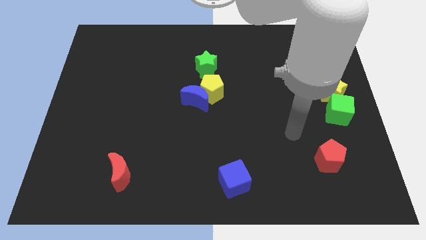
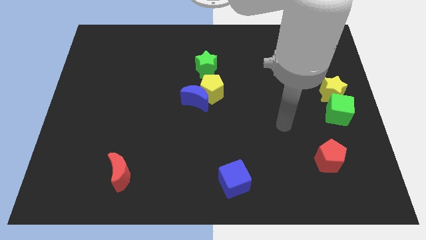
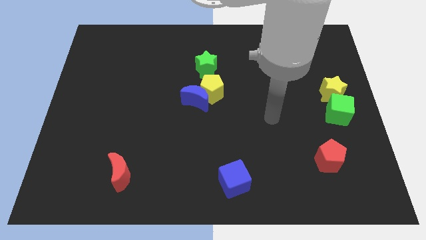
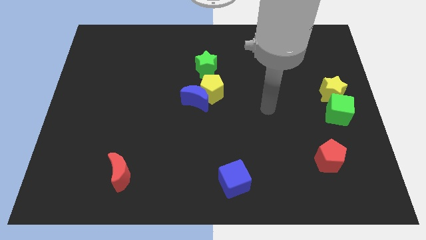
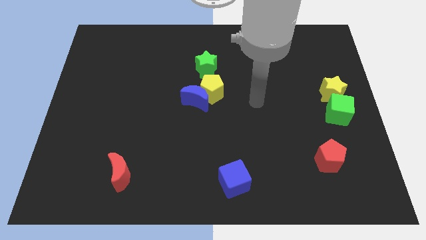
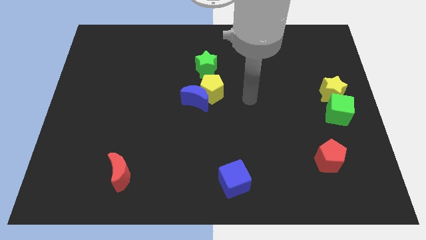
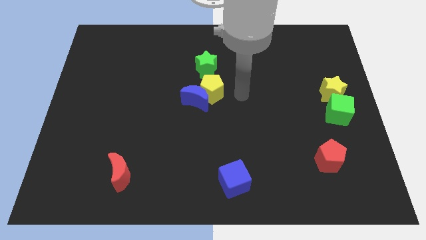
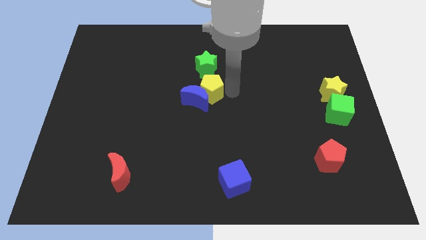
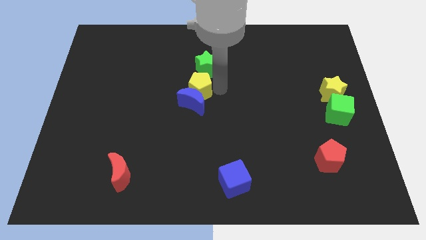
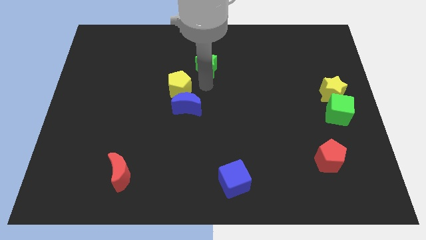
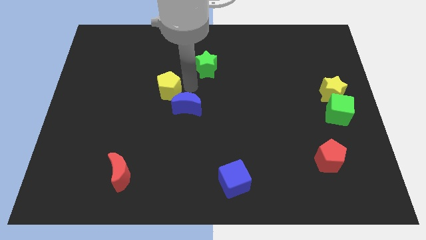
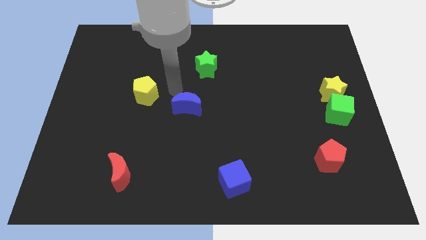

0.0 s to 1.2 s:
pull the blue moon apart from the yellow pentagon

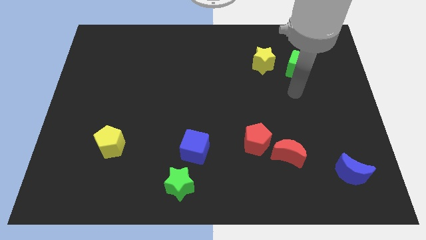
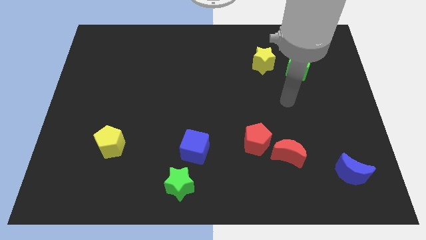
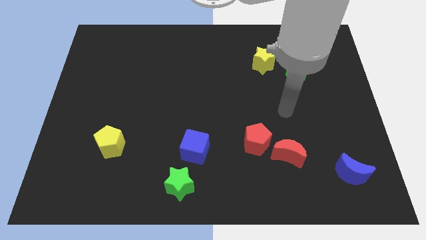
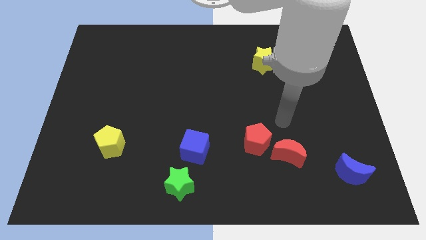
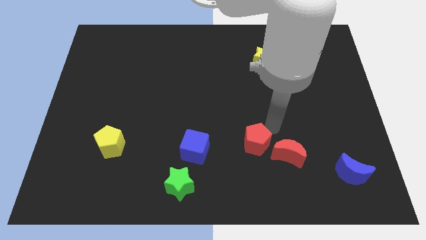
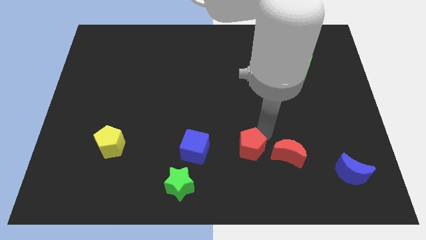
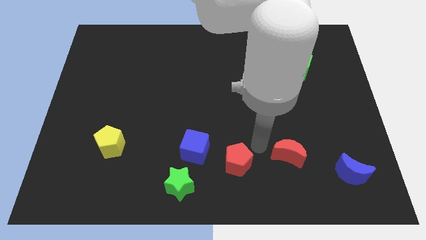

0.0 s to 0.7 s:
pull the red moon apart from the red pentagon

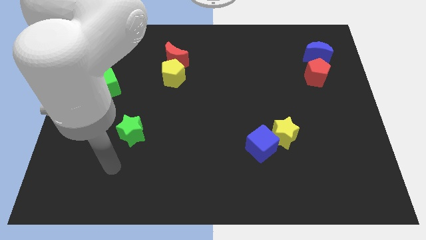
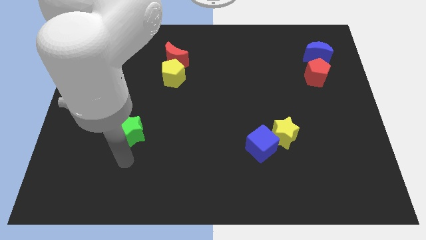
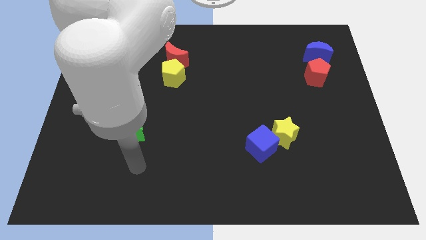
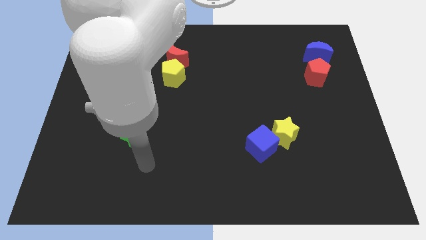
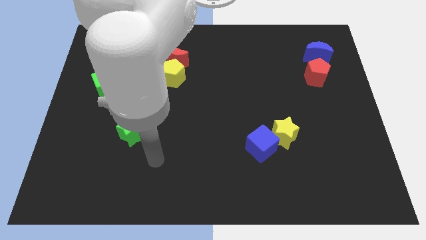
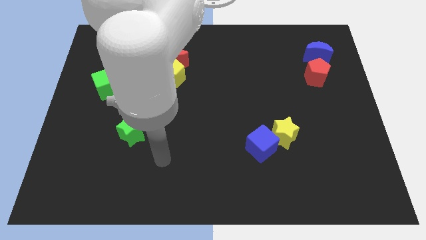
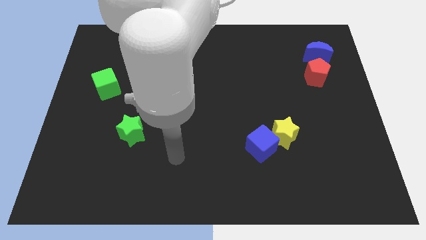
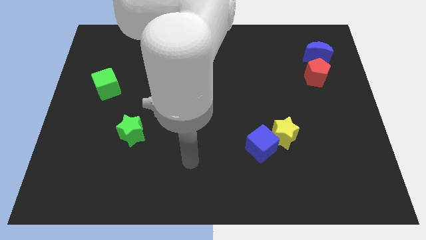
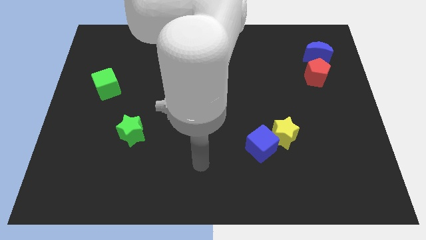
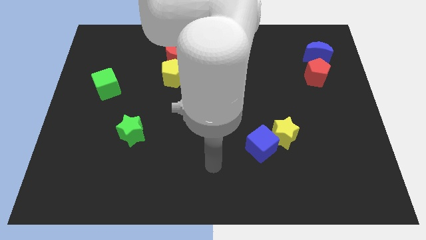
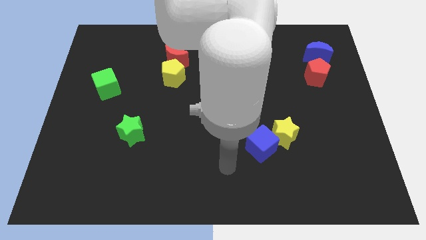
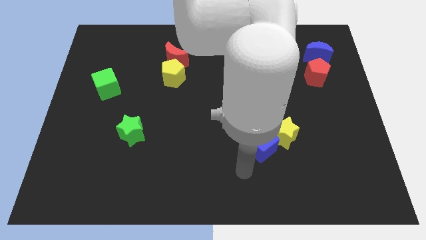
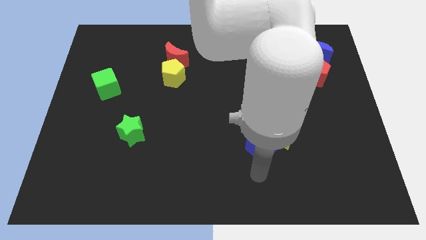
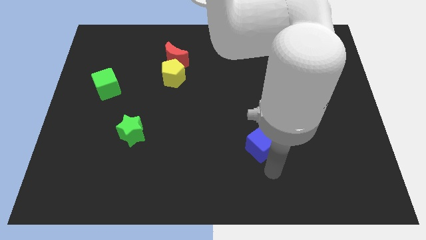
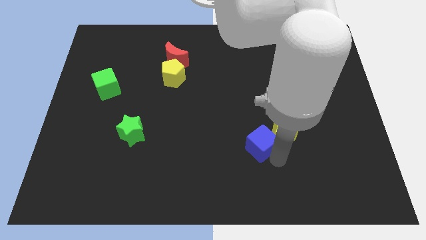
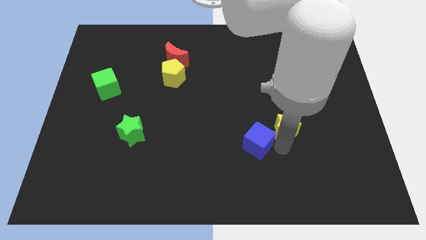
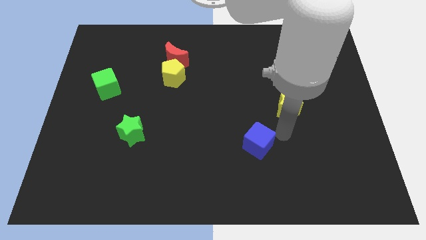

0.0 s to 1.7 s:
separate the blue cube from the yellow star

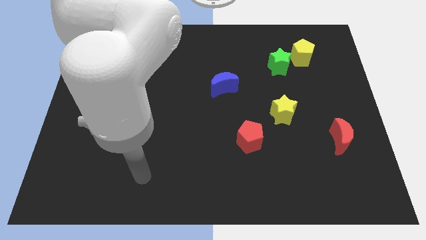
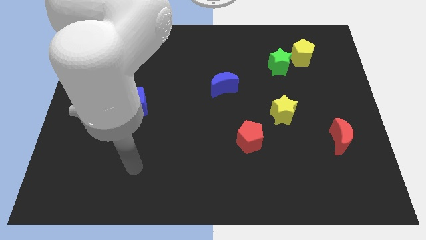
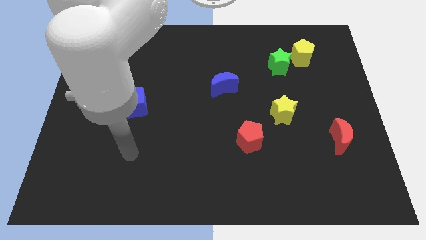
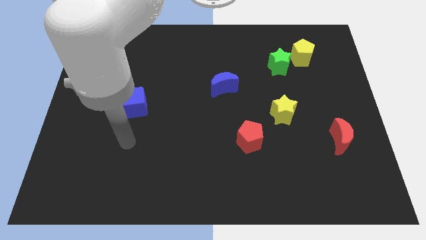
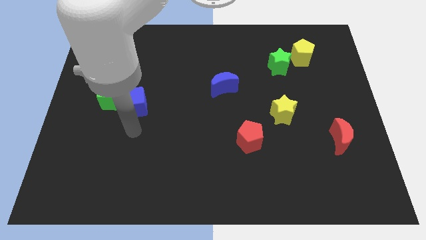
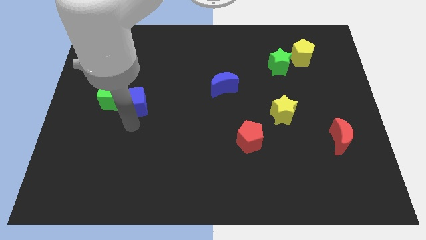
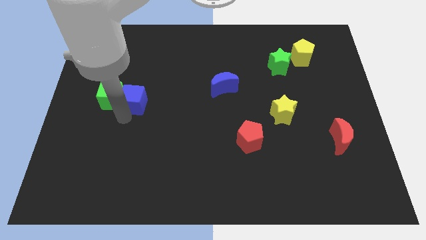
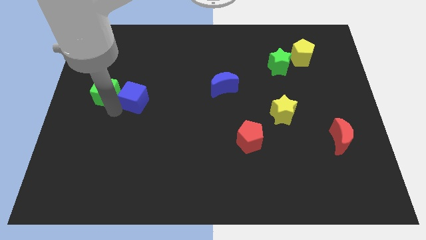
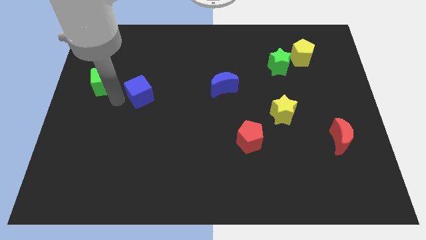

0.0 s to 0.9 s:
separate the blue cube from the green cube

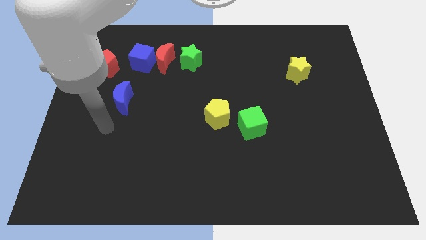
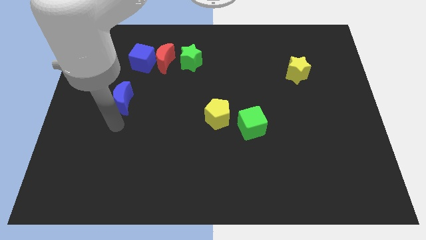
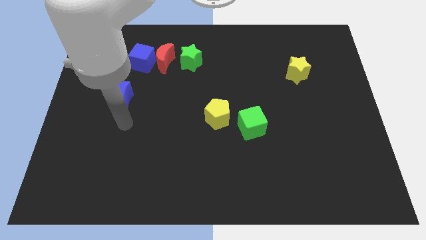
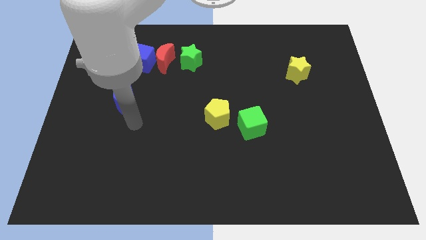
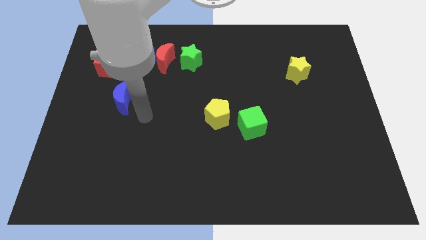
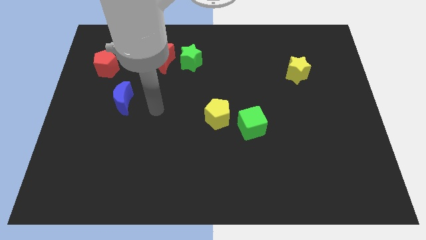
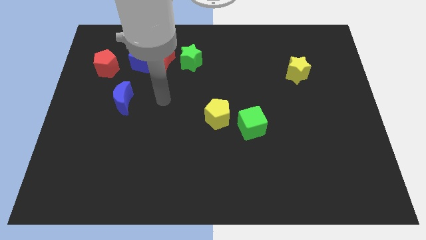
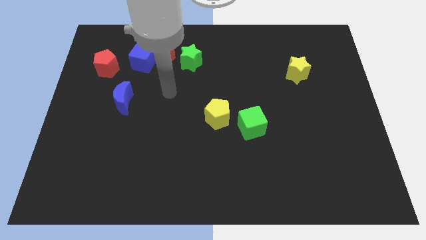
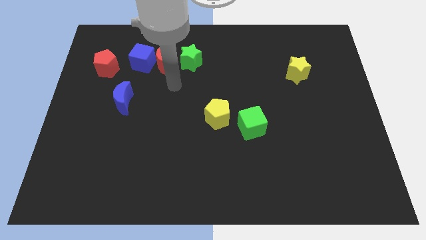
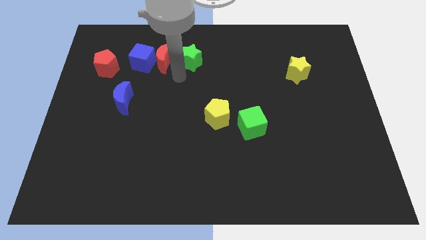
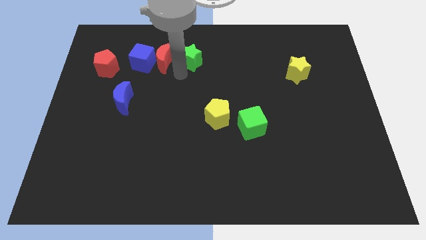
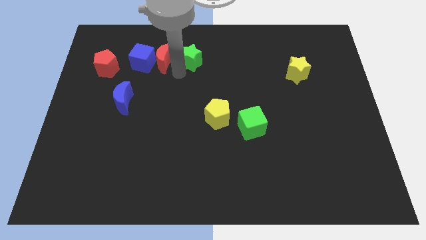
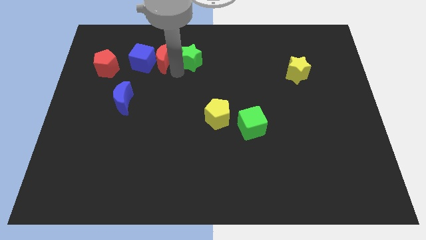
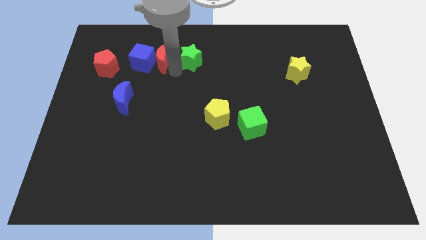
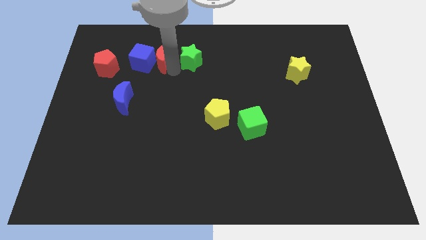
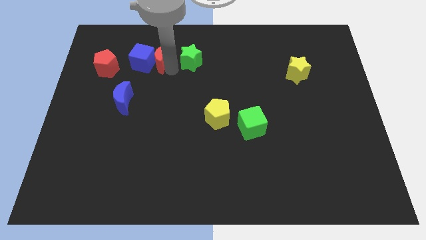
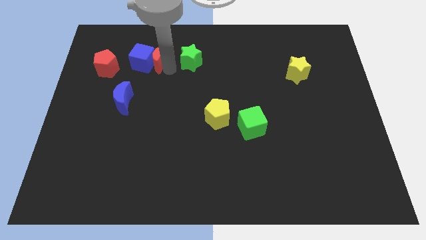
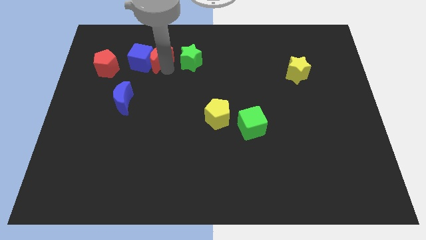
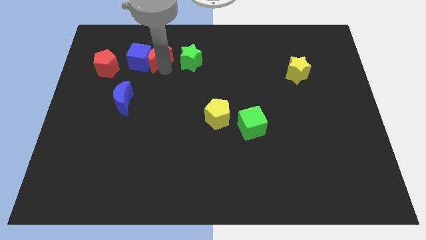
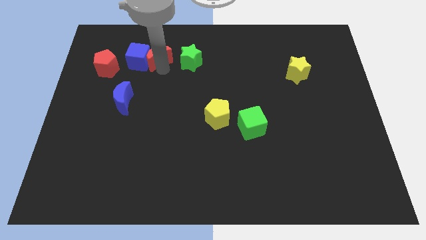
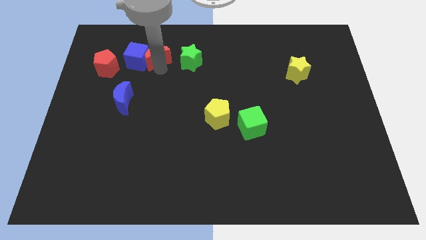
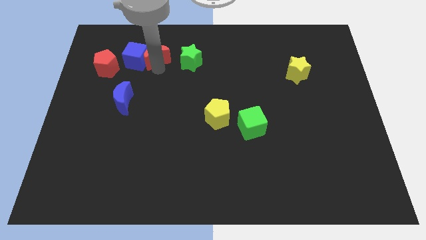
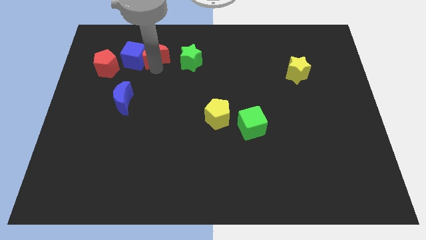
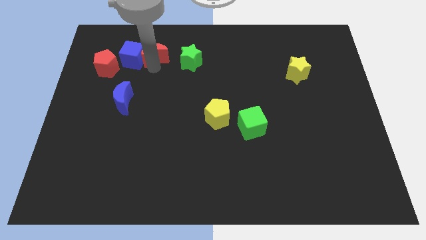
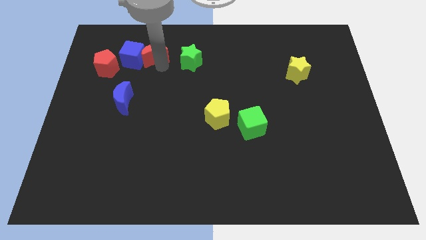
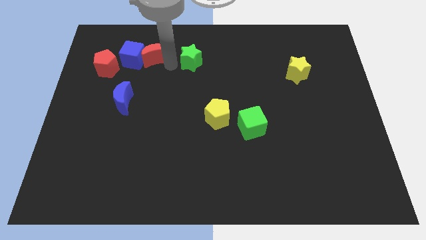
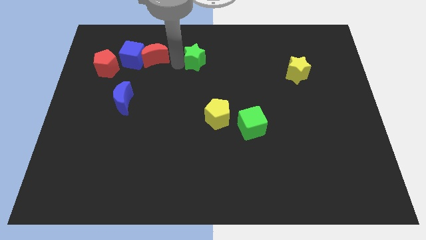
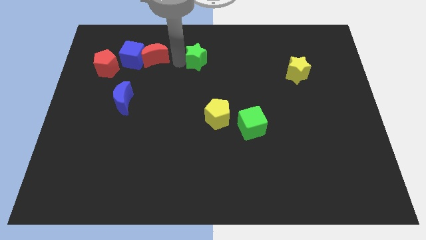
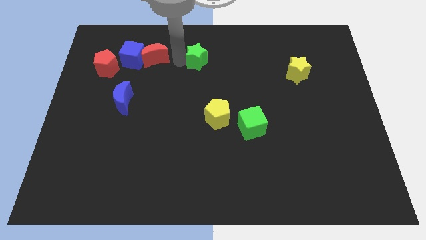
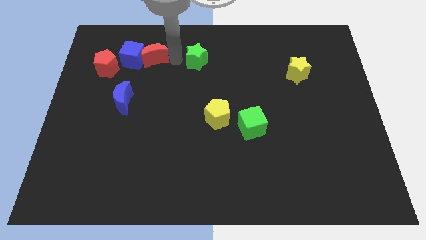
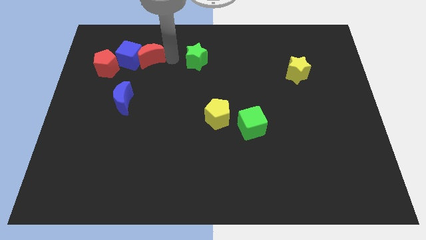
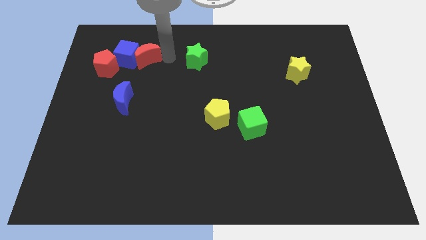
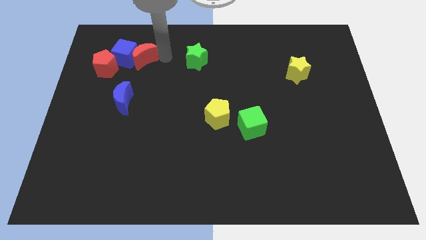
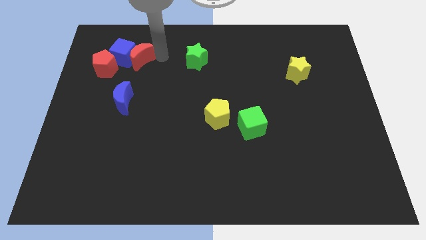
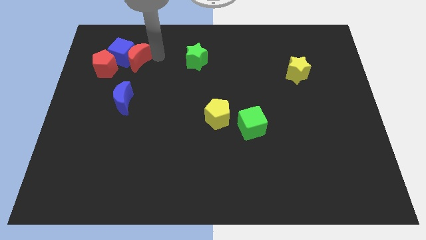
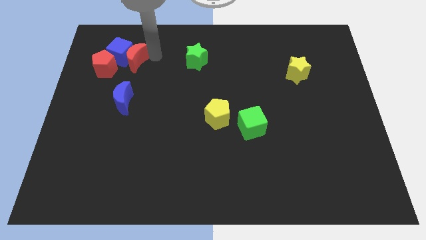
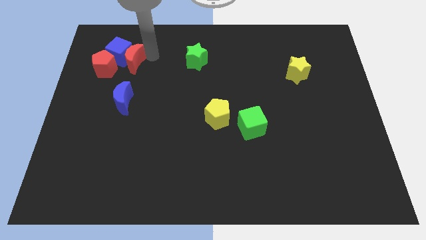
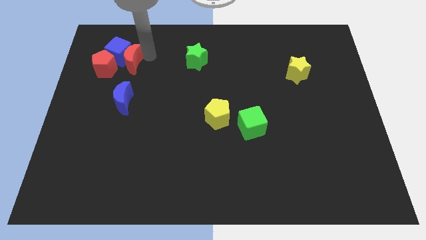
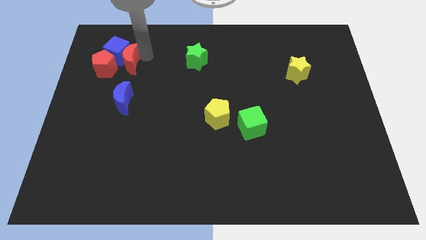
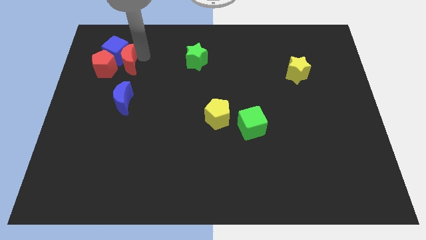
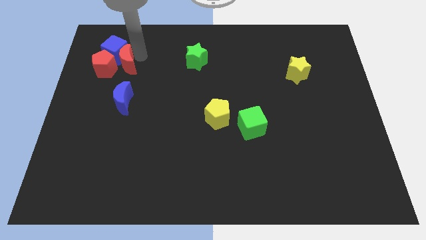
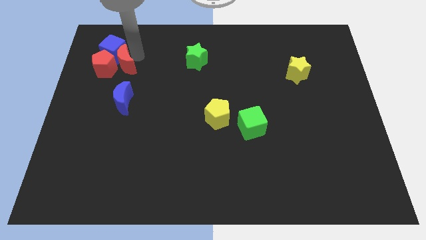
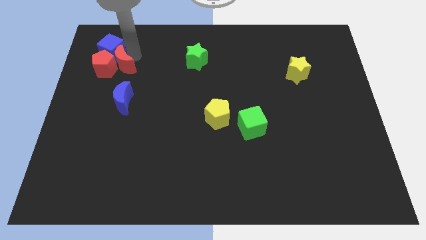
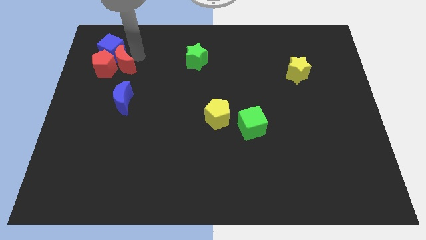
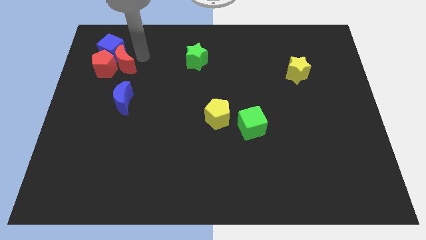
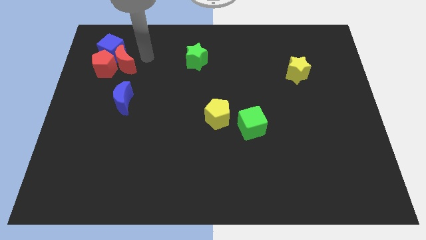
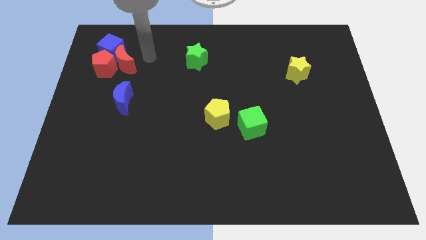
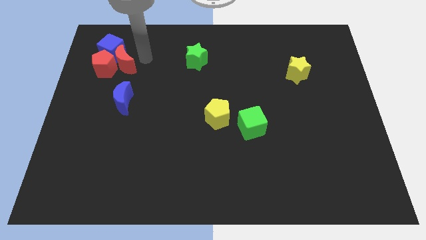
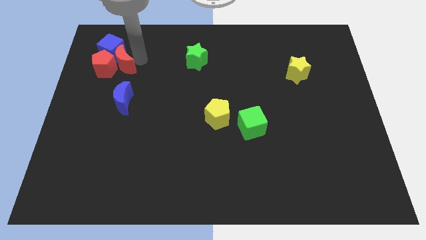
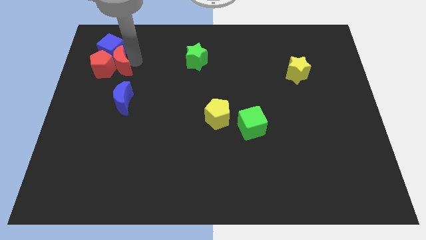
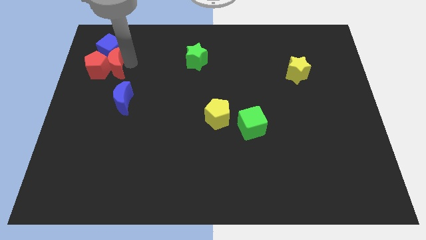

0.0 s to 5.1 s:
separate the red moon from the blue cube and green star
